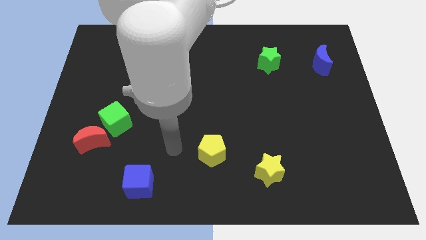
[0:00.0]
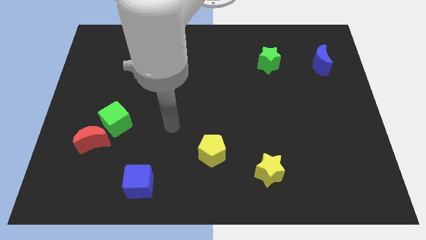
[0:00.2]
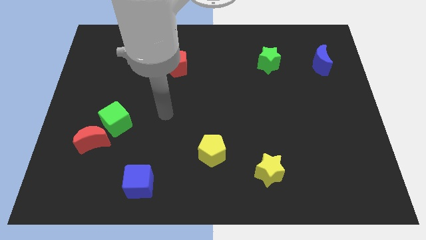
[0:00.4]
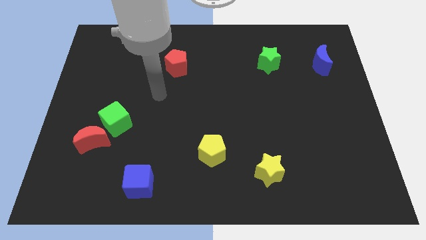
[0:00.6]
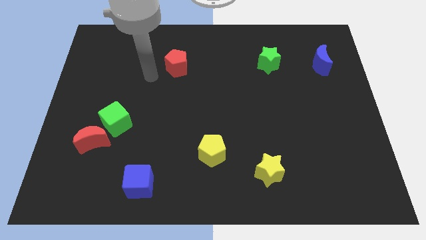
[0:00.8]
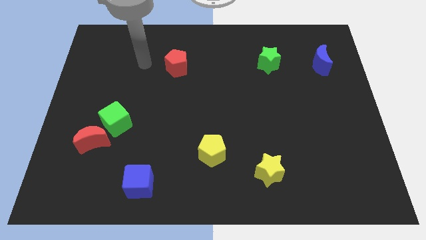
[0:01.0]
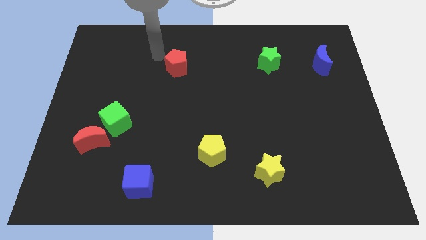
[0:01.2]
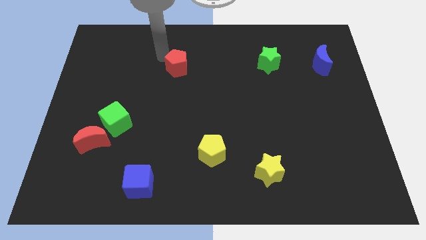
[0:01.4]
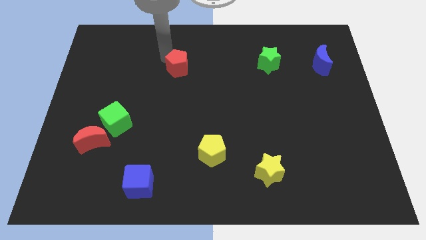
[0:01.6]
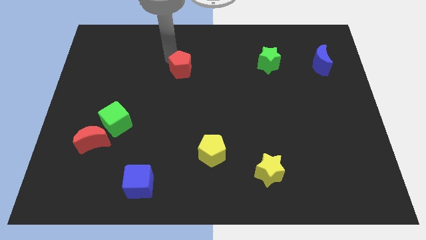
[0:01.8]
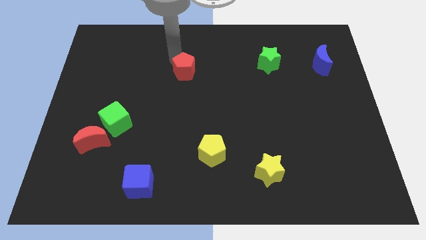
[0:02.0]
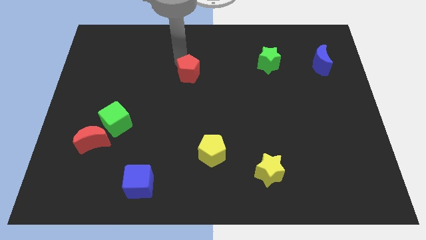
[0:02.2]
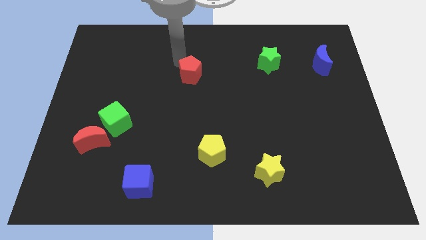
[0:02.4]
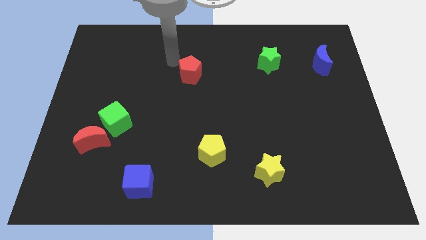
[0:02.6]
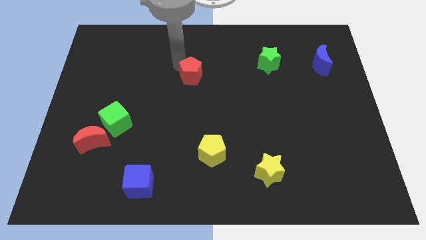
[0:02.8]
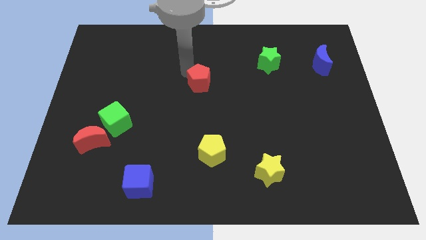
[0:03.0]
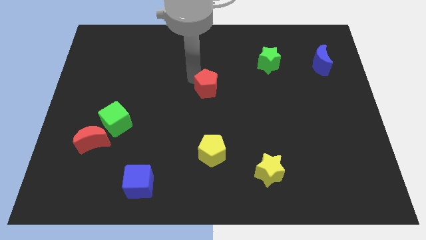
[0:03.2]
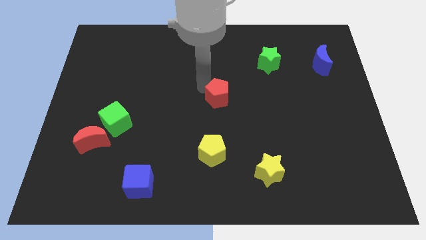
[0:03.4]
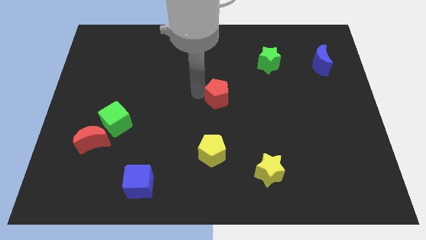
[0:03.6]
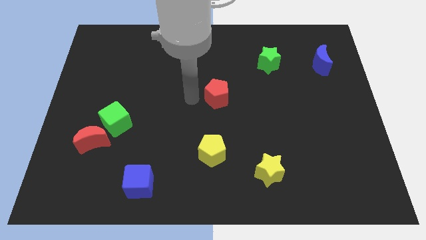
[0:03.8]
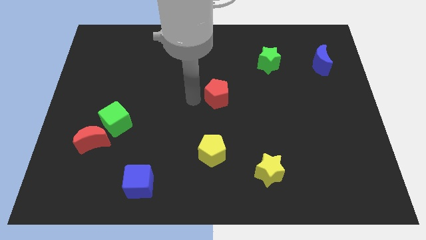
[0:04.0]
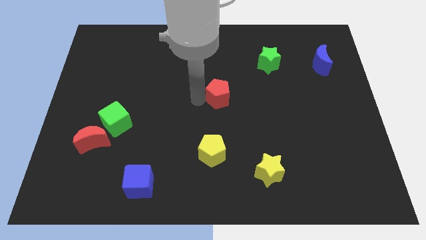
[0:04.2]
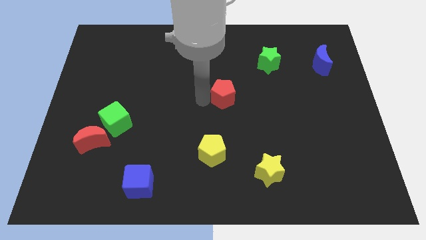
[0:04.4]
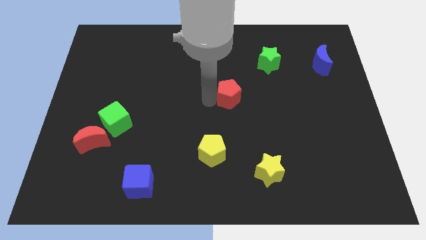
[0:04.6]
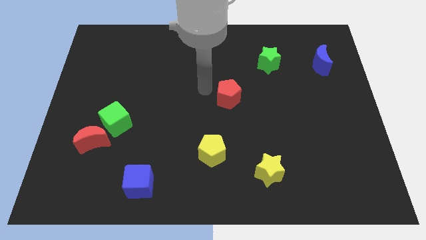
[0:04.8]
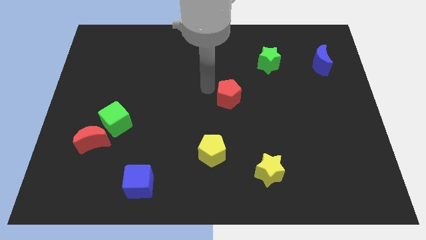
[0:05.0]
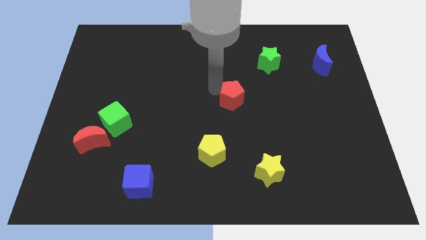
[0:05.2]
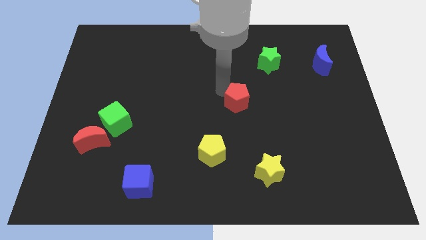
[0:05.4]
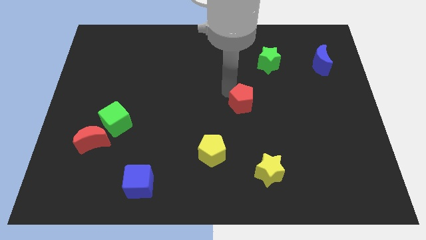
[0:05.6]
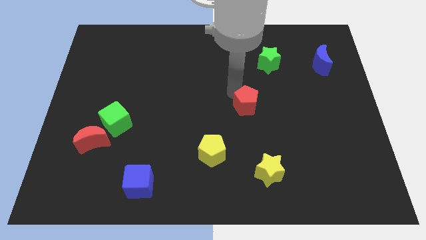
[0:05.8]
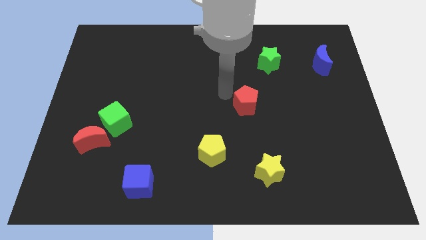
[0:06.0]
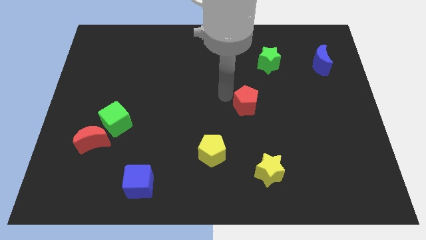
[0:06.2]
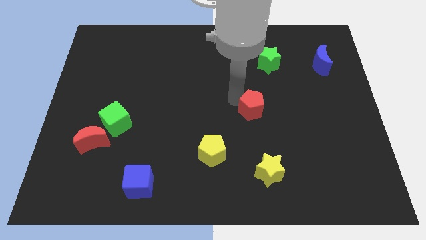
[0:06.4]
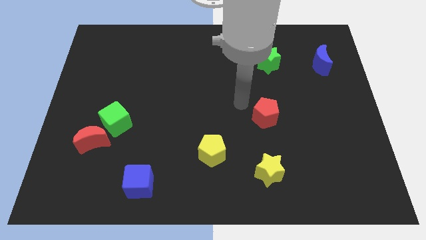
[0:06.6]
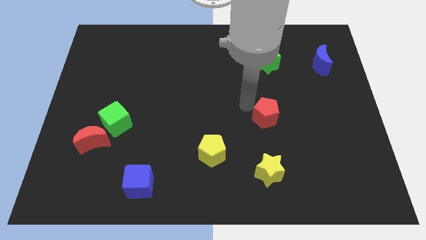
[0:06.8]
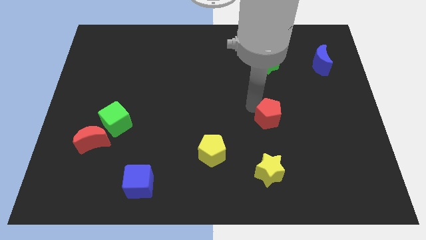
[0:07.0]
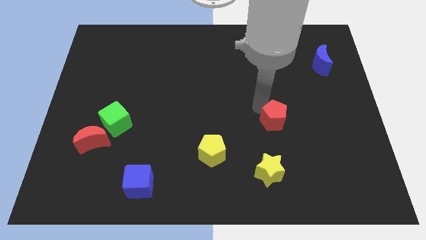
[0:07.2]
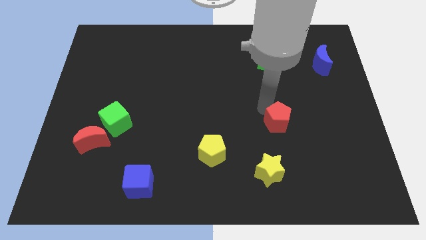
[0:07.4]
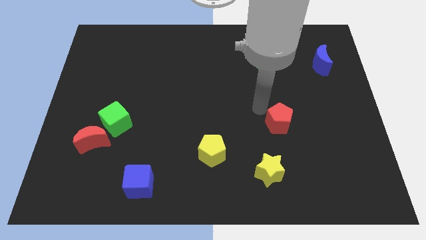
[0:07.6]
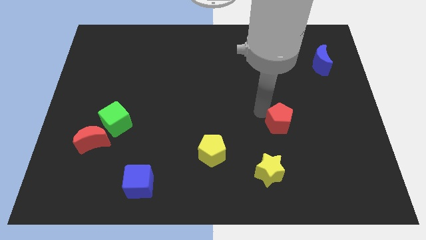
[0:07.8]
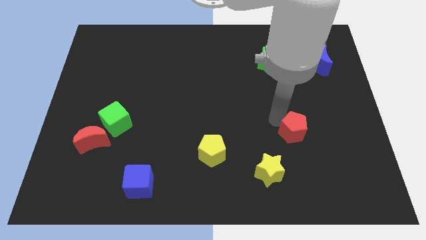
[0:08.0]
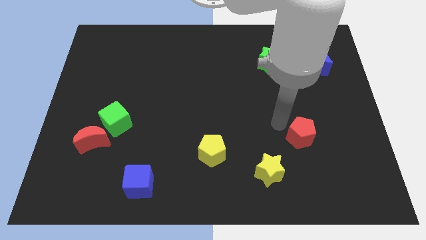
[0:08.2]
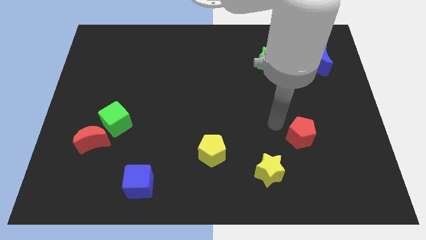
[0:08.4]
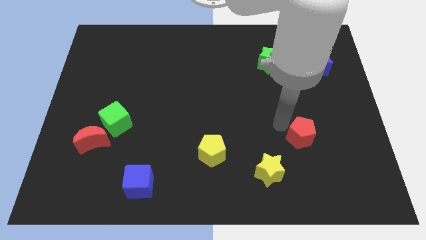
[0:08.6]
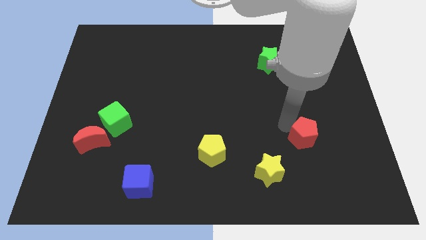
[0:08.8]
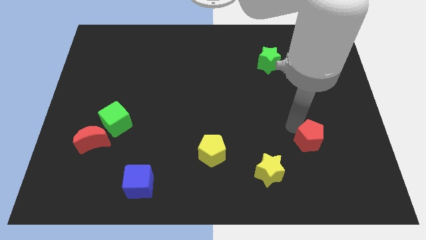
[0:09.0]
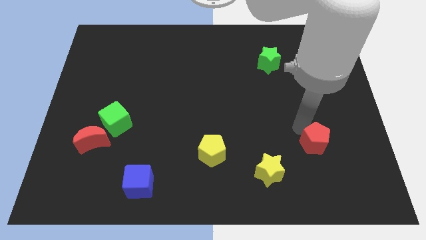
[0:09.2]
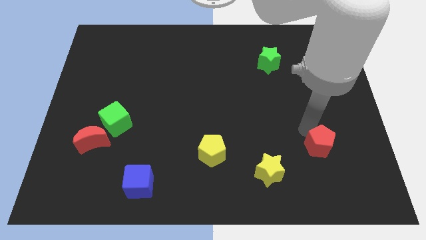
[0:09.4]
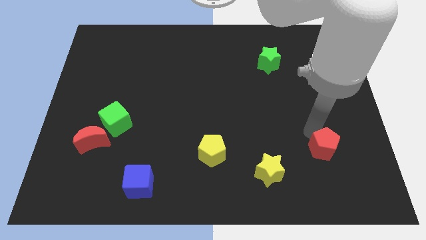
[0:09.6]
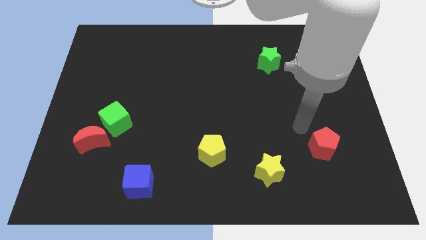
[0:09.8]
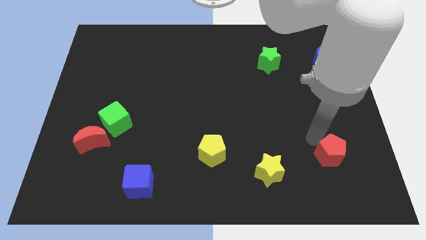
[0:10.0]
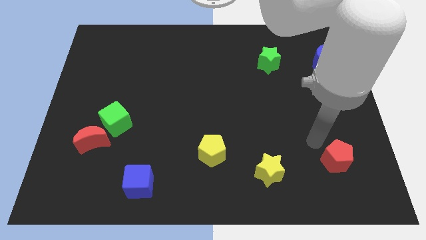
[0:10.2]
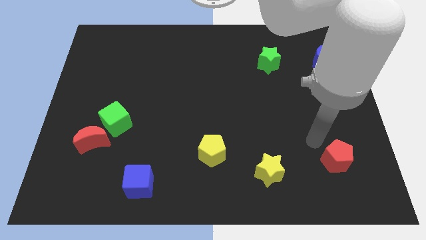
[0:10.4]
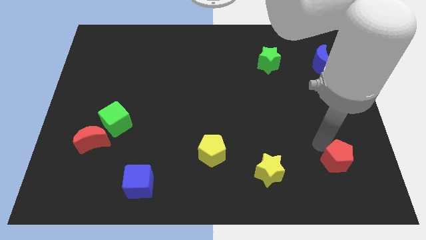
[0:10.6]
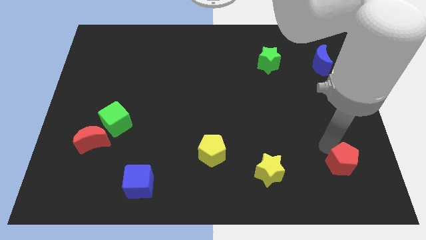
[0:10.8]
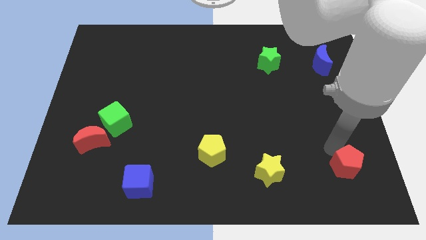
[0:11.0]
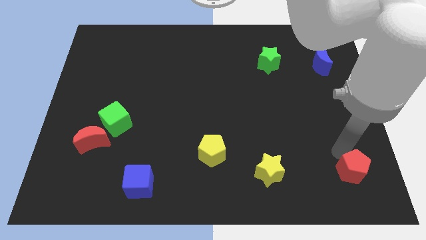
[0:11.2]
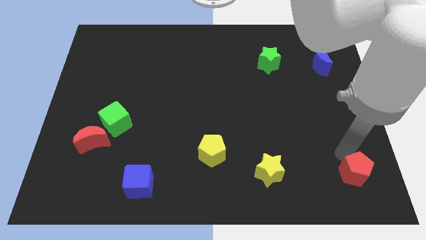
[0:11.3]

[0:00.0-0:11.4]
slide the red pentagon to the bottom right corner

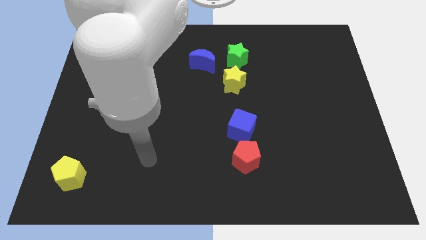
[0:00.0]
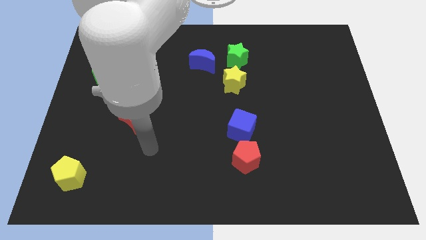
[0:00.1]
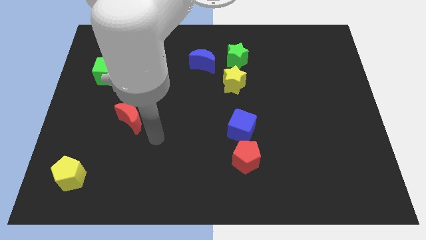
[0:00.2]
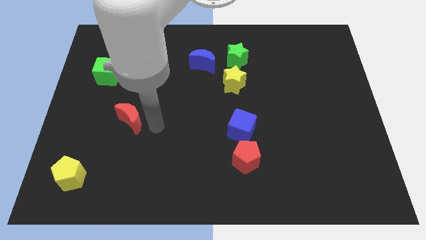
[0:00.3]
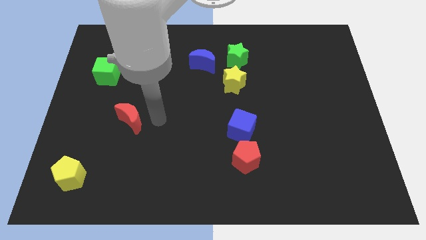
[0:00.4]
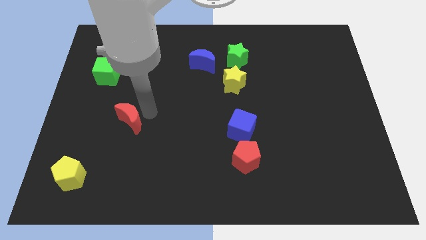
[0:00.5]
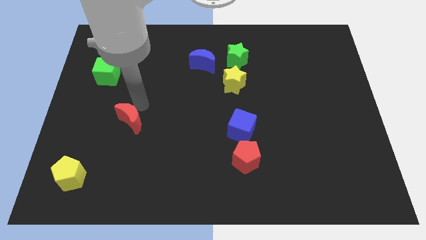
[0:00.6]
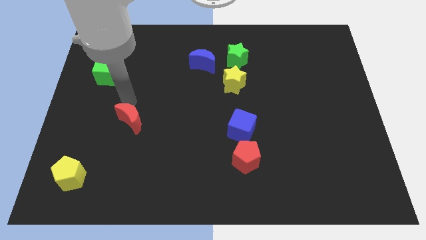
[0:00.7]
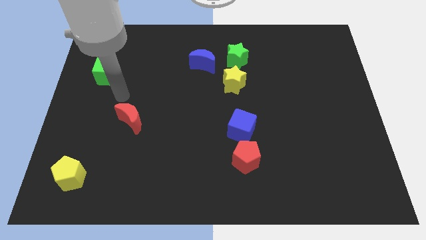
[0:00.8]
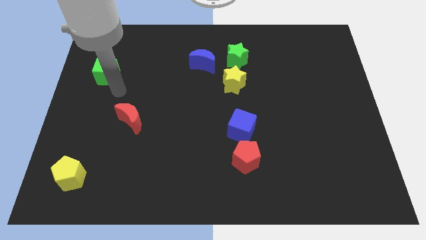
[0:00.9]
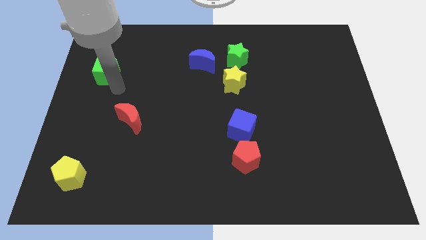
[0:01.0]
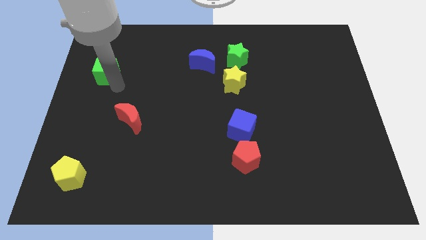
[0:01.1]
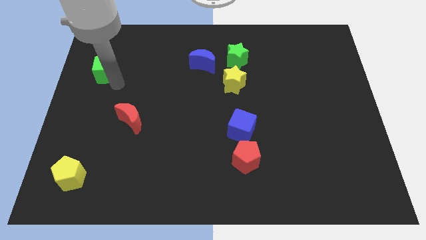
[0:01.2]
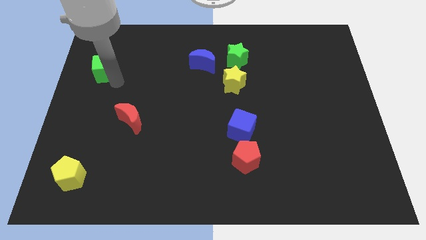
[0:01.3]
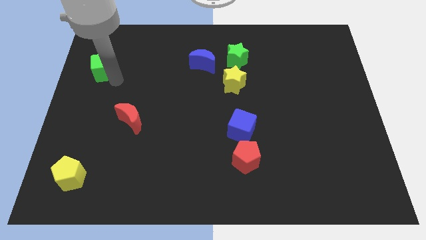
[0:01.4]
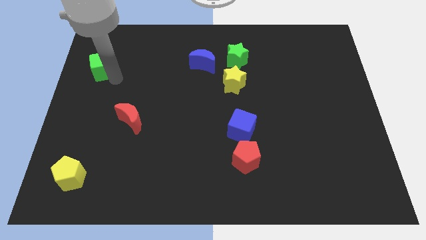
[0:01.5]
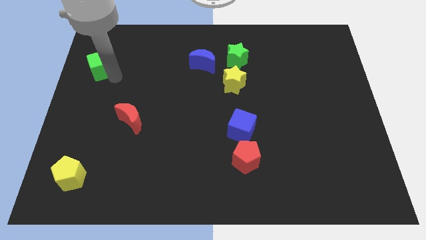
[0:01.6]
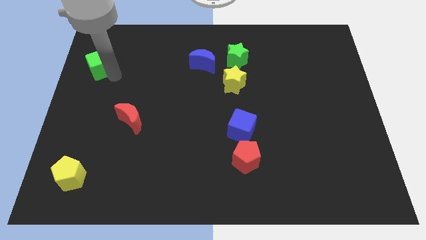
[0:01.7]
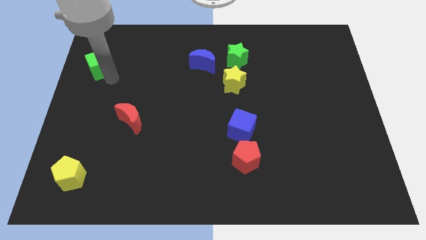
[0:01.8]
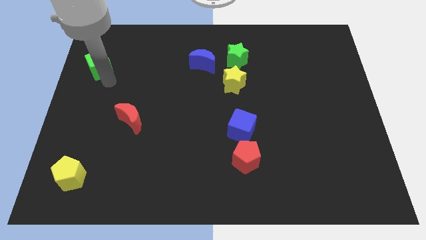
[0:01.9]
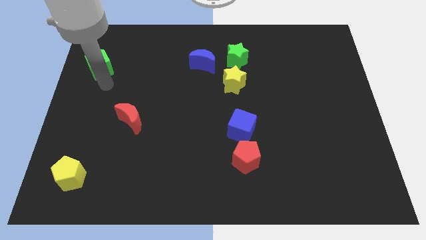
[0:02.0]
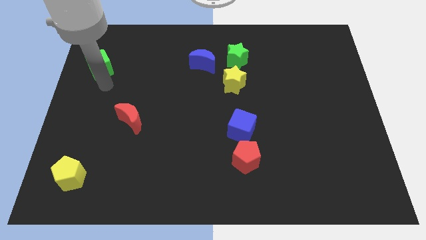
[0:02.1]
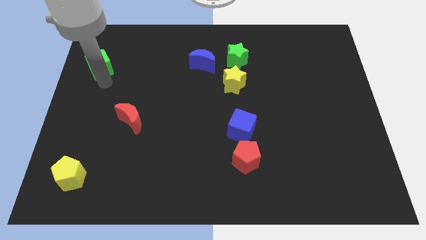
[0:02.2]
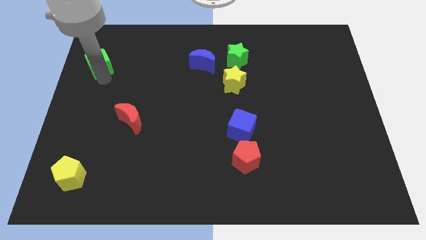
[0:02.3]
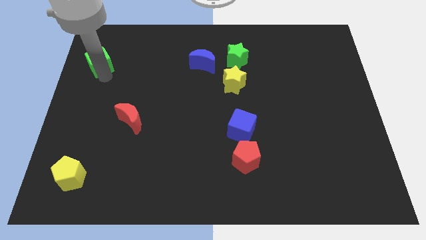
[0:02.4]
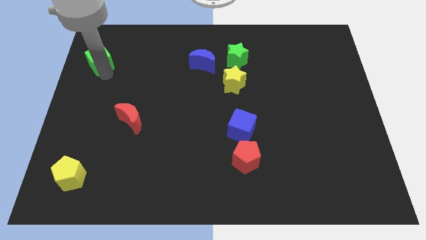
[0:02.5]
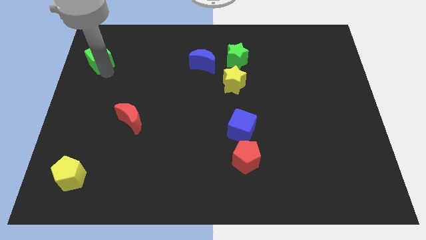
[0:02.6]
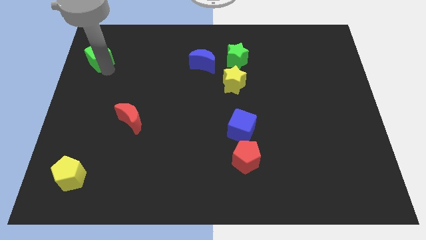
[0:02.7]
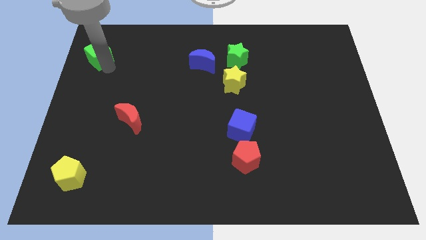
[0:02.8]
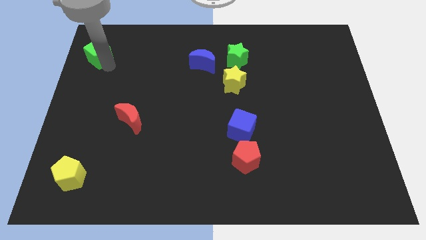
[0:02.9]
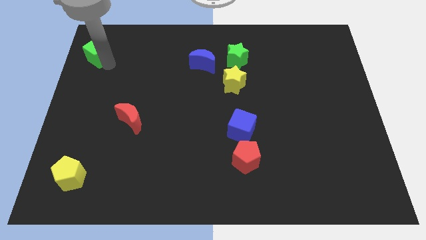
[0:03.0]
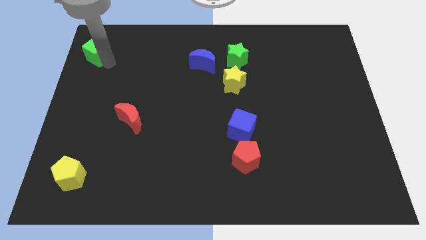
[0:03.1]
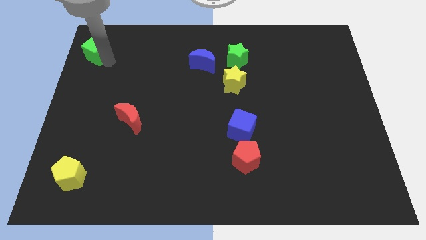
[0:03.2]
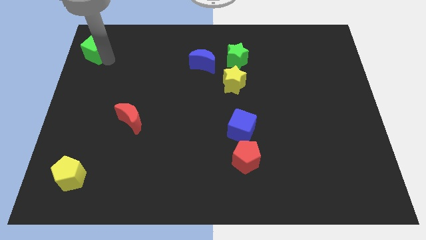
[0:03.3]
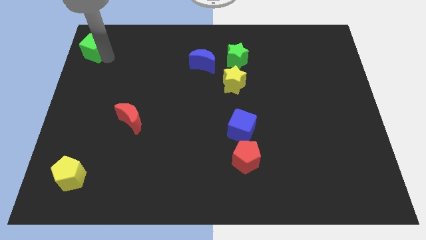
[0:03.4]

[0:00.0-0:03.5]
move the green cube to the top left corner
